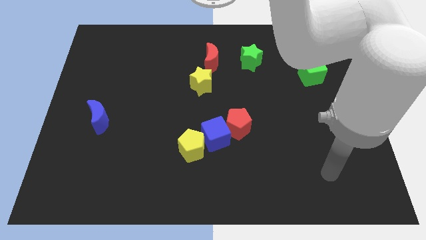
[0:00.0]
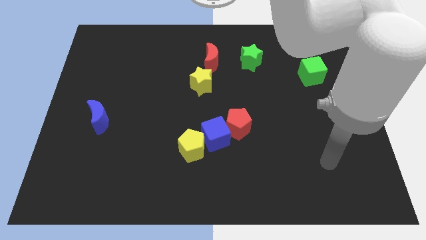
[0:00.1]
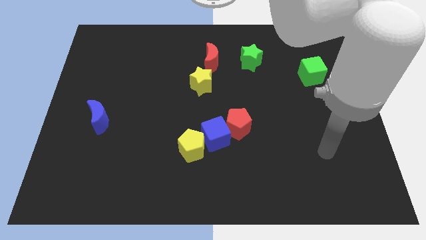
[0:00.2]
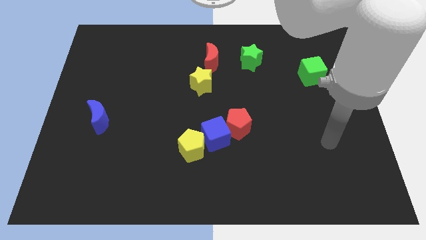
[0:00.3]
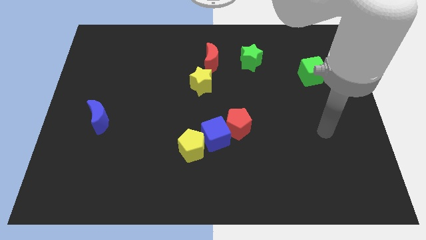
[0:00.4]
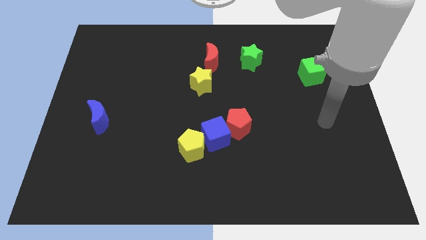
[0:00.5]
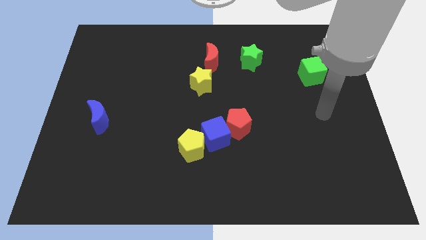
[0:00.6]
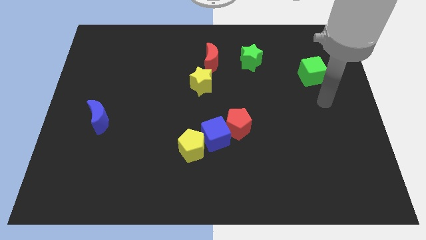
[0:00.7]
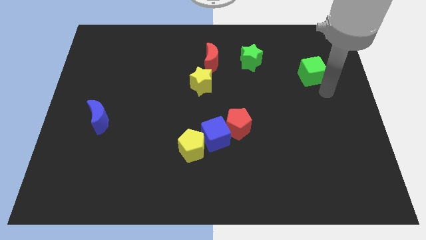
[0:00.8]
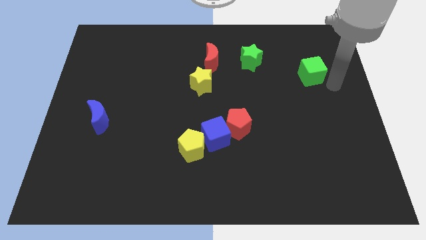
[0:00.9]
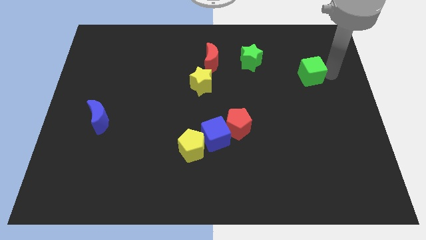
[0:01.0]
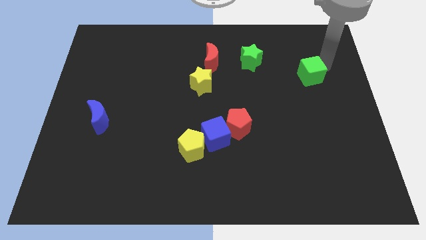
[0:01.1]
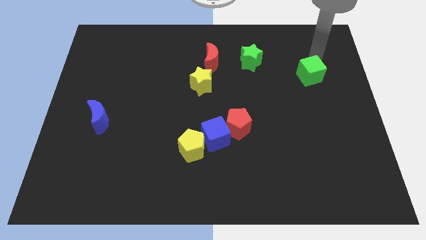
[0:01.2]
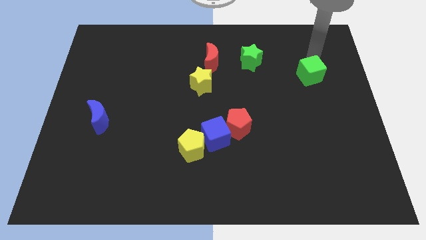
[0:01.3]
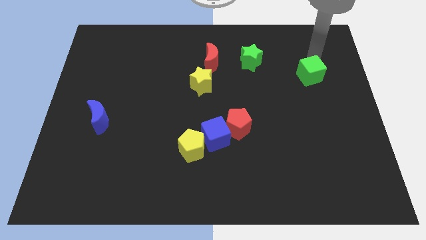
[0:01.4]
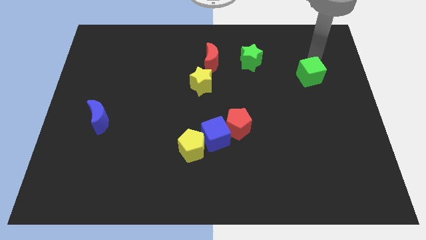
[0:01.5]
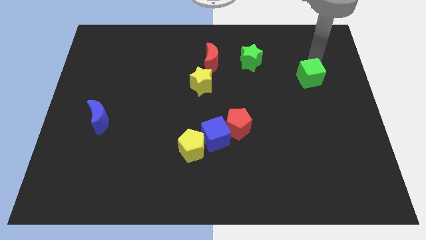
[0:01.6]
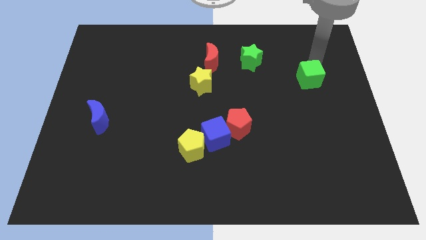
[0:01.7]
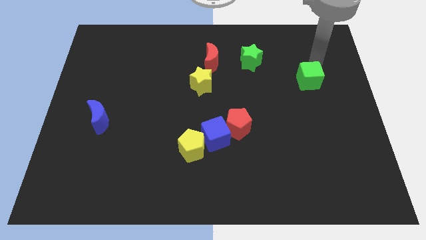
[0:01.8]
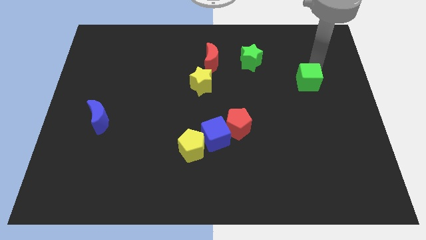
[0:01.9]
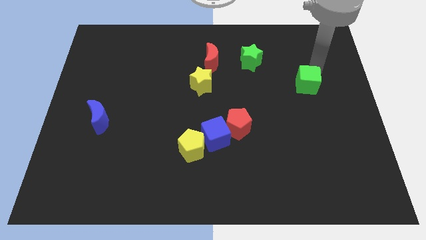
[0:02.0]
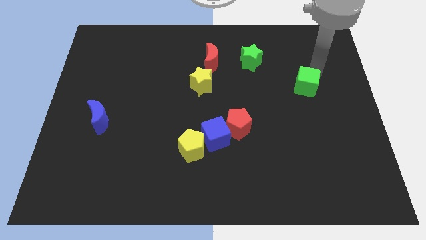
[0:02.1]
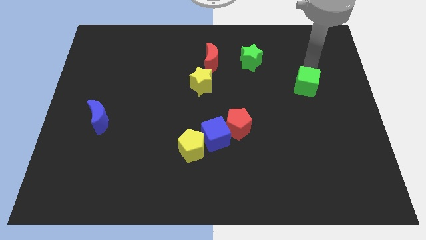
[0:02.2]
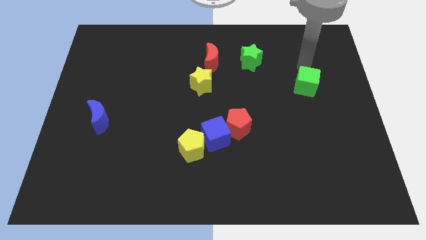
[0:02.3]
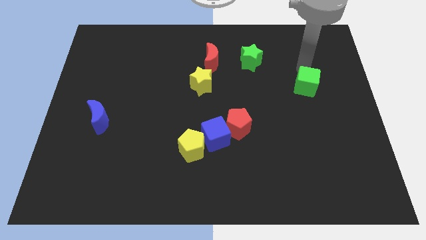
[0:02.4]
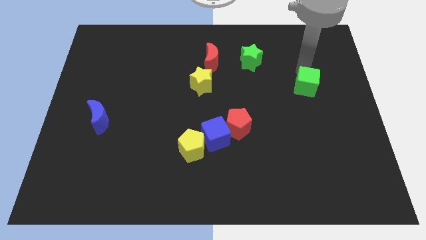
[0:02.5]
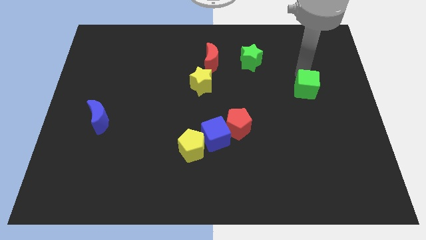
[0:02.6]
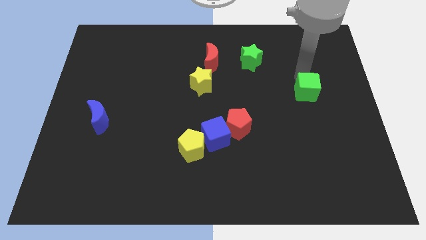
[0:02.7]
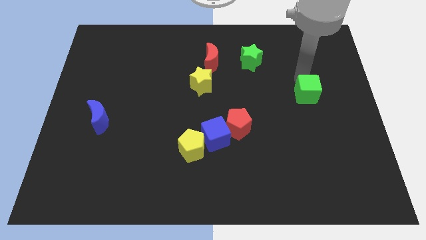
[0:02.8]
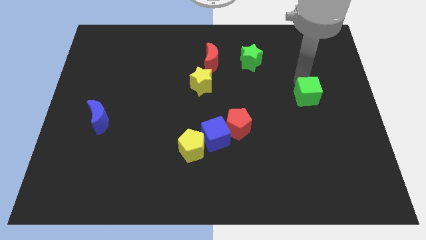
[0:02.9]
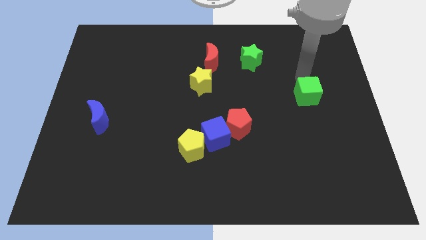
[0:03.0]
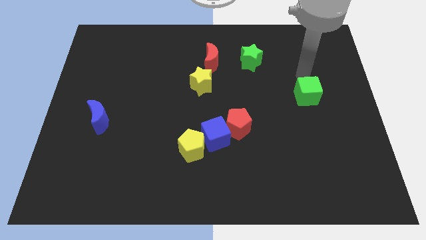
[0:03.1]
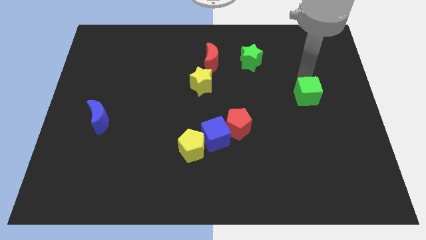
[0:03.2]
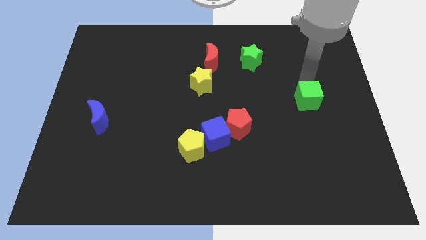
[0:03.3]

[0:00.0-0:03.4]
move the green cube a bit downwards

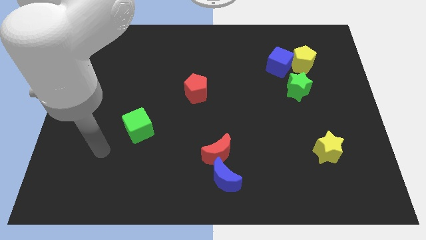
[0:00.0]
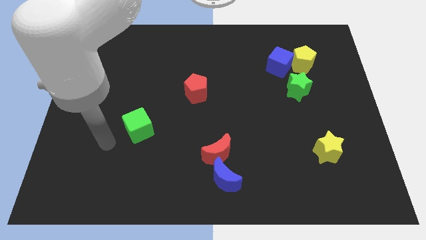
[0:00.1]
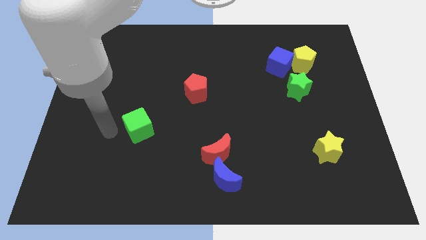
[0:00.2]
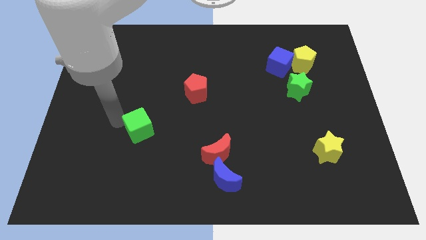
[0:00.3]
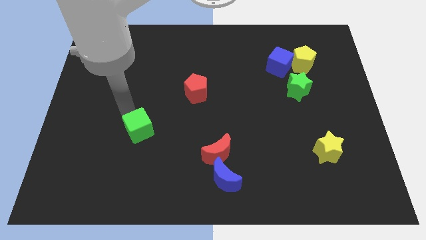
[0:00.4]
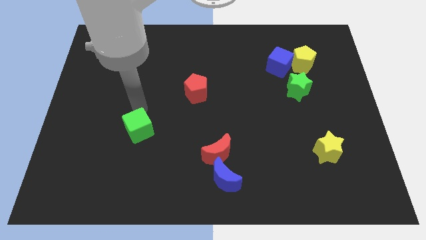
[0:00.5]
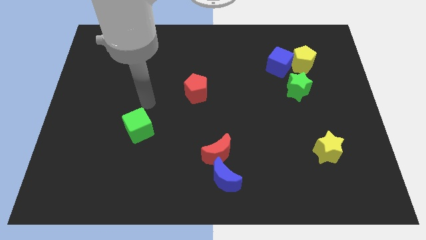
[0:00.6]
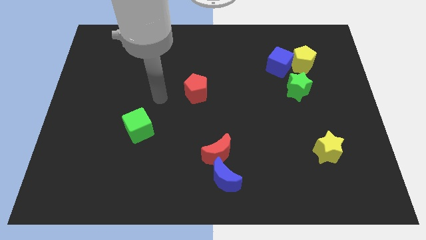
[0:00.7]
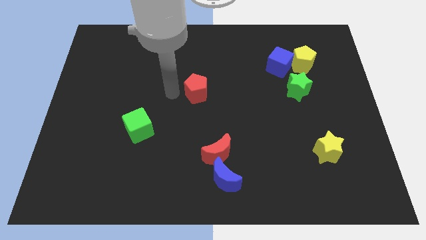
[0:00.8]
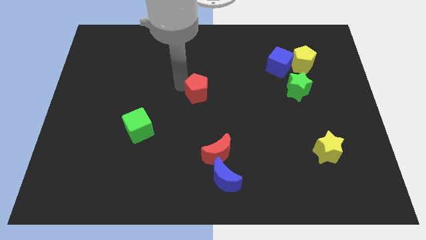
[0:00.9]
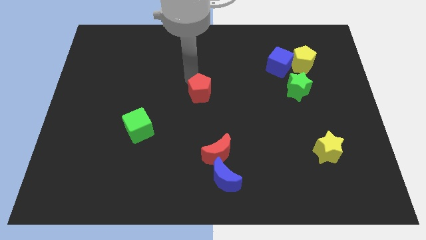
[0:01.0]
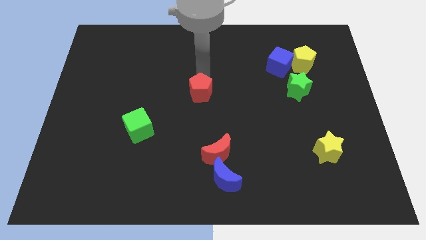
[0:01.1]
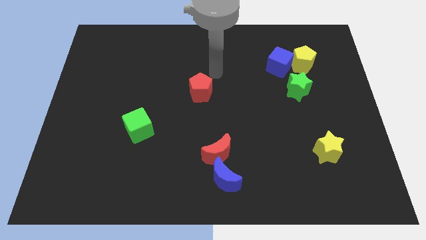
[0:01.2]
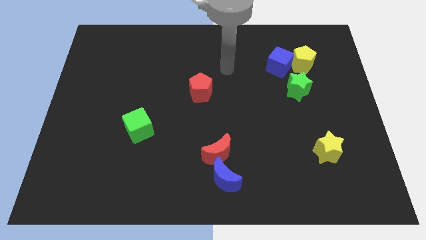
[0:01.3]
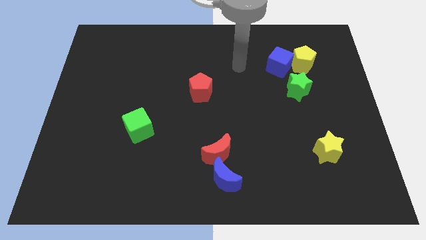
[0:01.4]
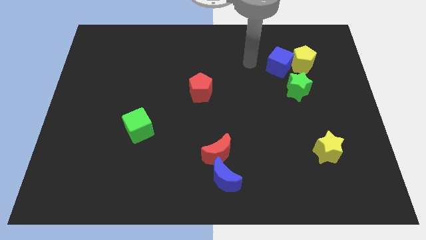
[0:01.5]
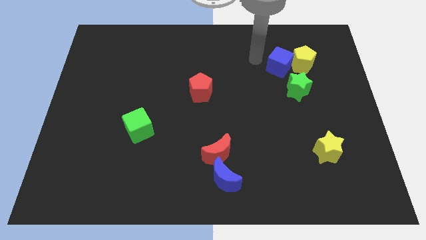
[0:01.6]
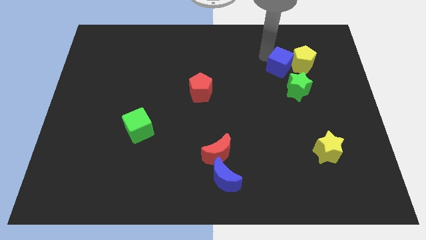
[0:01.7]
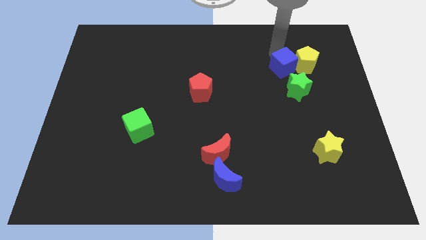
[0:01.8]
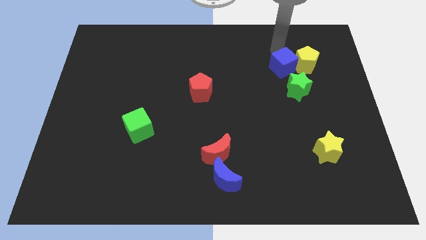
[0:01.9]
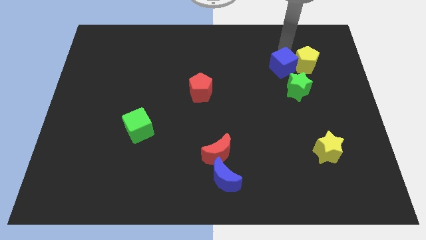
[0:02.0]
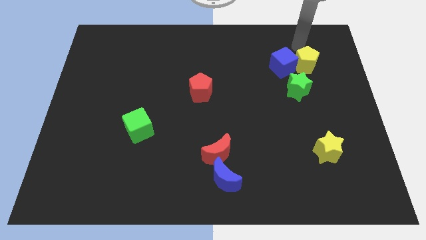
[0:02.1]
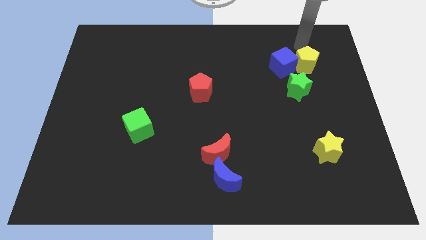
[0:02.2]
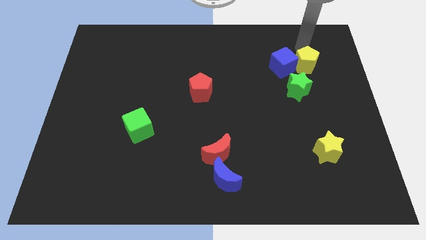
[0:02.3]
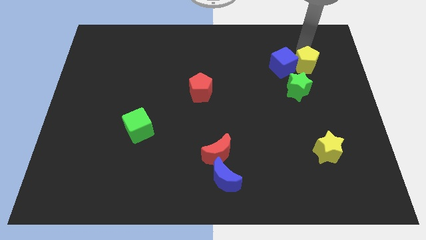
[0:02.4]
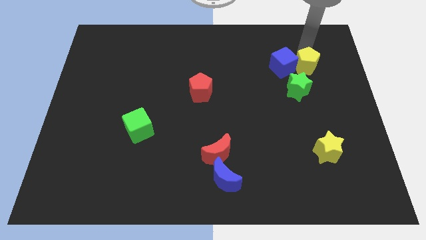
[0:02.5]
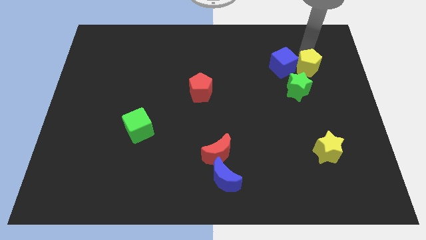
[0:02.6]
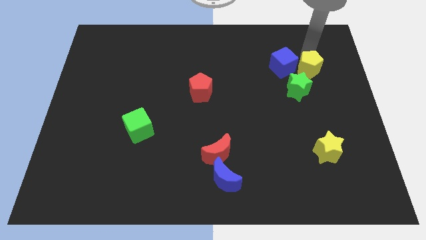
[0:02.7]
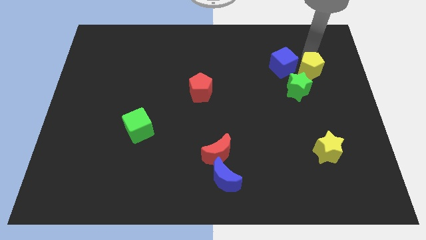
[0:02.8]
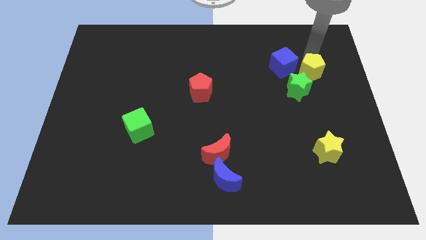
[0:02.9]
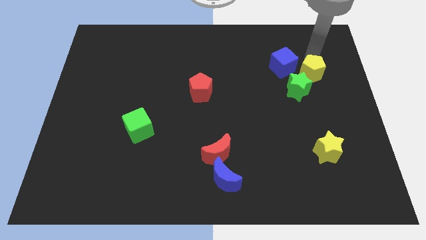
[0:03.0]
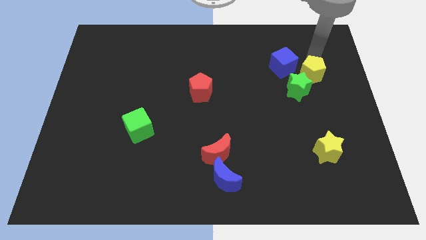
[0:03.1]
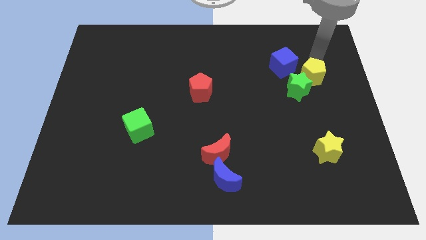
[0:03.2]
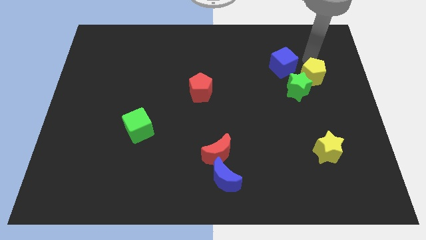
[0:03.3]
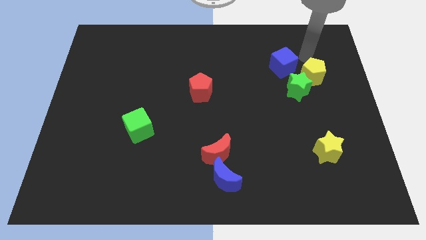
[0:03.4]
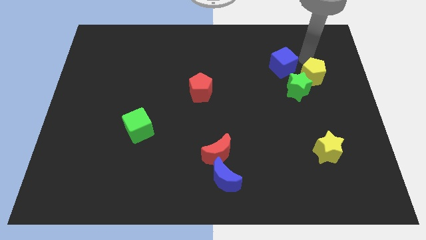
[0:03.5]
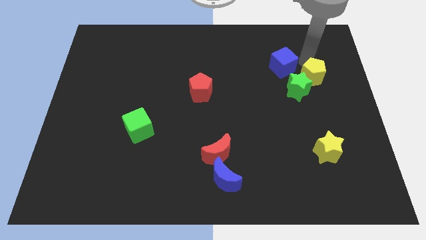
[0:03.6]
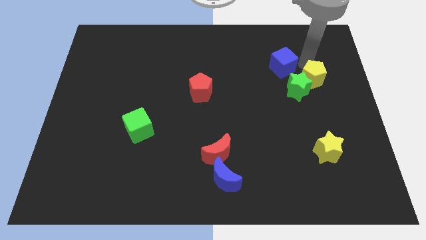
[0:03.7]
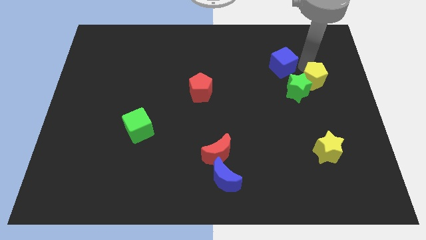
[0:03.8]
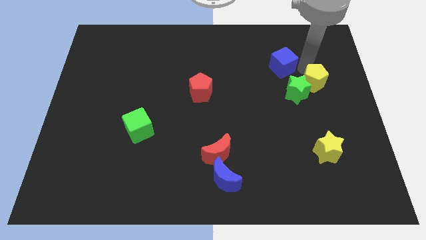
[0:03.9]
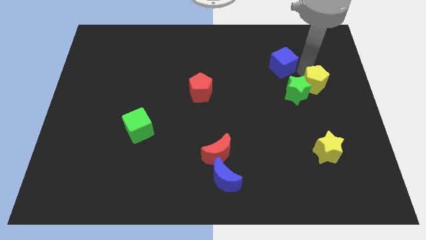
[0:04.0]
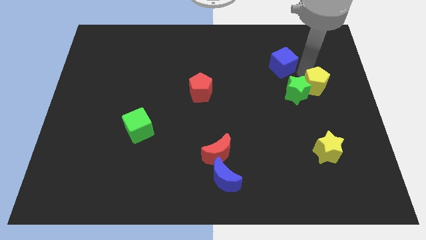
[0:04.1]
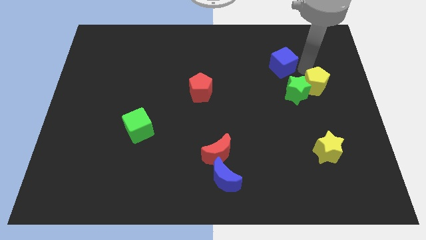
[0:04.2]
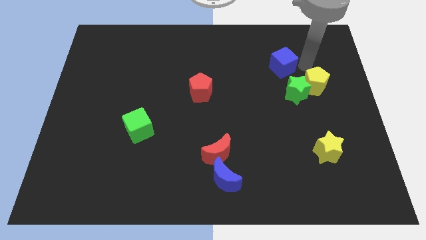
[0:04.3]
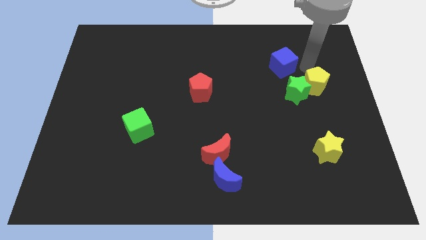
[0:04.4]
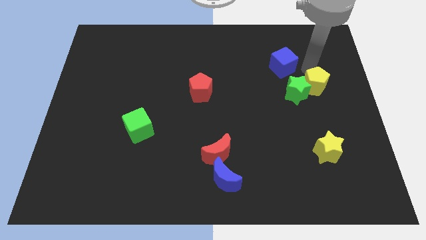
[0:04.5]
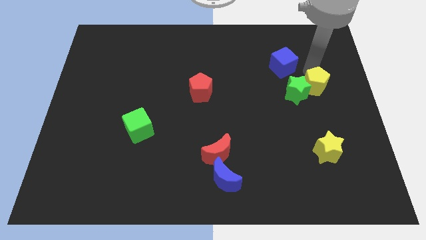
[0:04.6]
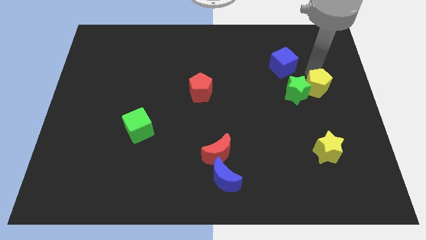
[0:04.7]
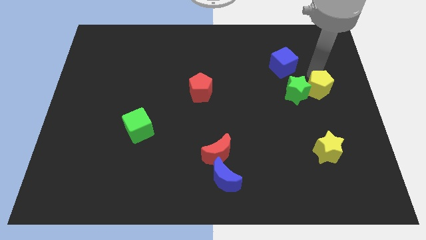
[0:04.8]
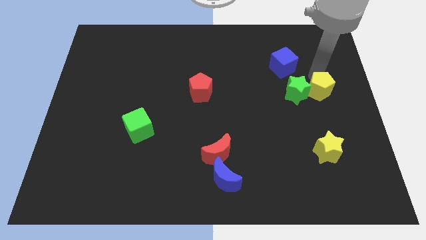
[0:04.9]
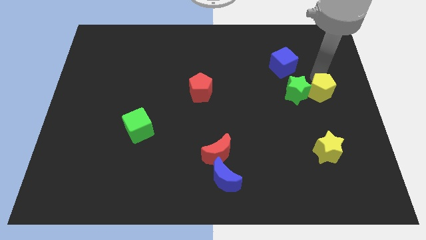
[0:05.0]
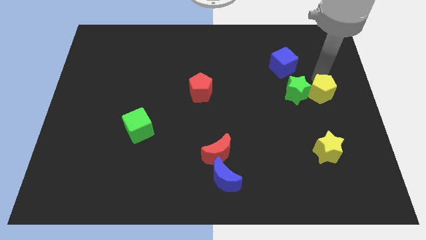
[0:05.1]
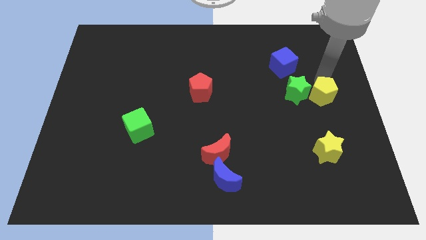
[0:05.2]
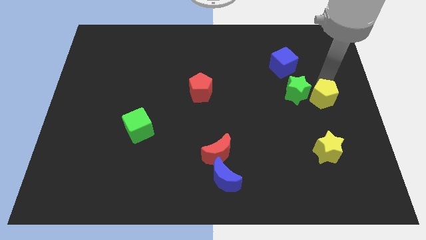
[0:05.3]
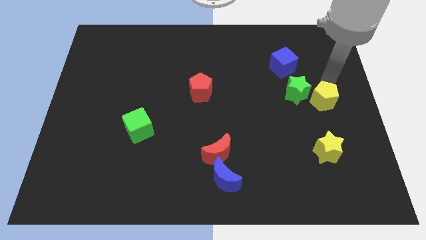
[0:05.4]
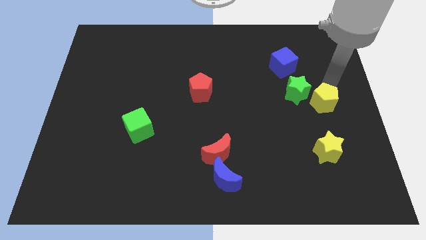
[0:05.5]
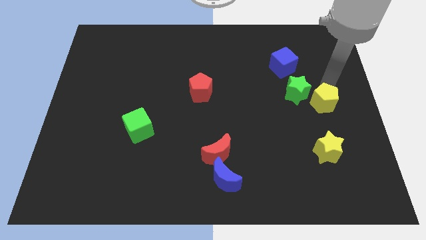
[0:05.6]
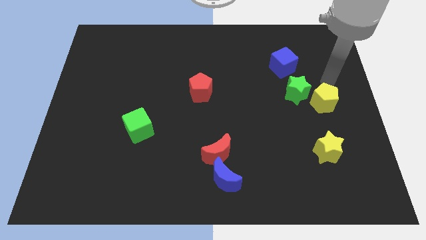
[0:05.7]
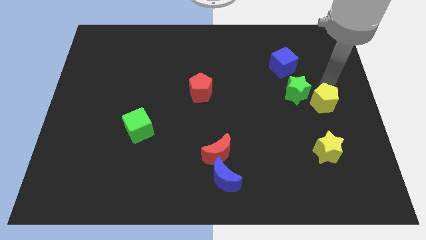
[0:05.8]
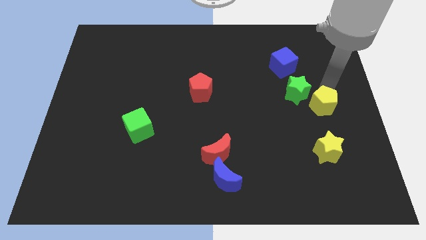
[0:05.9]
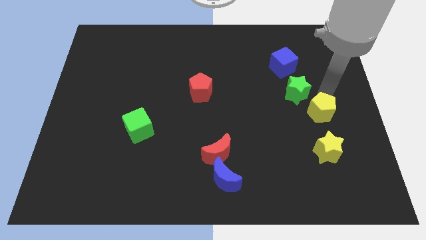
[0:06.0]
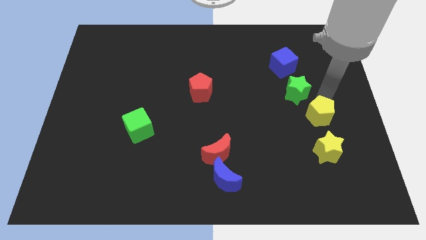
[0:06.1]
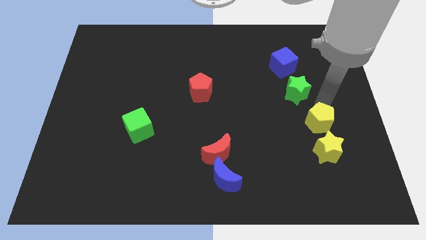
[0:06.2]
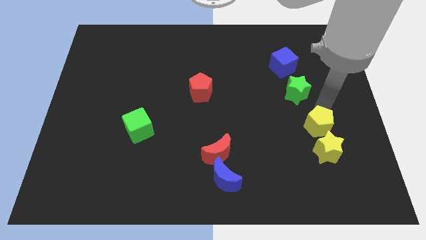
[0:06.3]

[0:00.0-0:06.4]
push the yellow pentagon down
